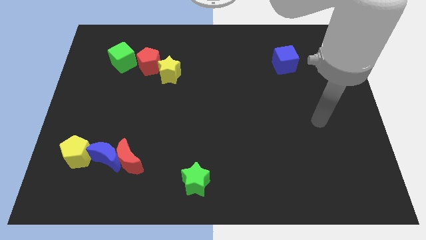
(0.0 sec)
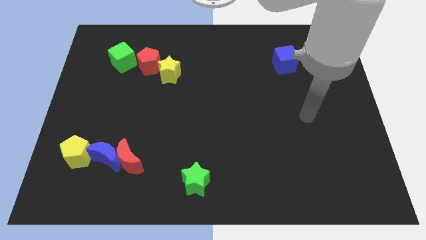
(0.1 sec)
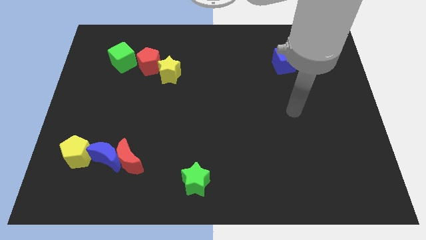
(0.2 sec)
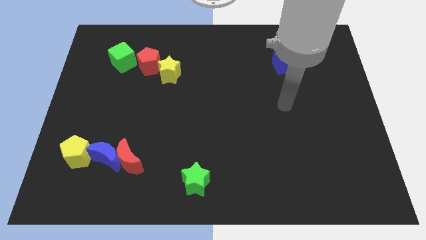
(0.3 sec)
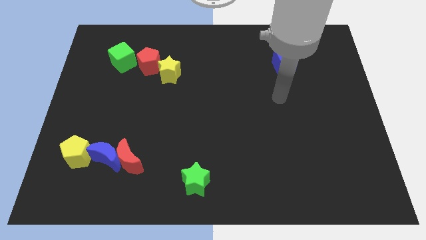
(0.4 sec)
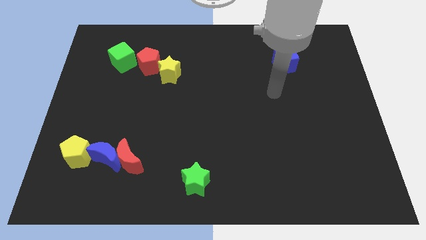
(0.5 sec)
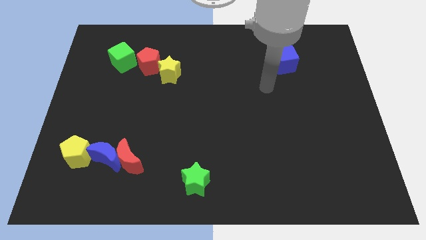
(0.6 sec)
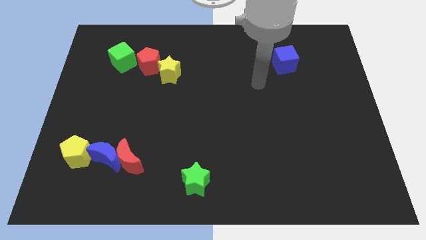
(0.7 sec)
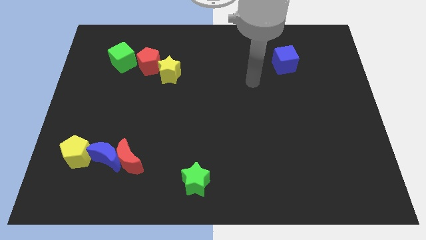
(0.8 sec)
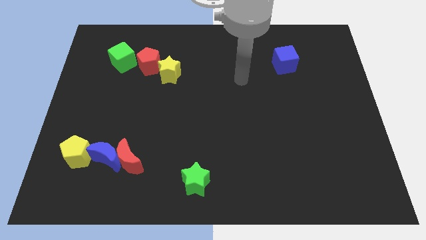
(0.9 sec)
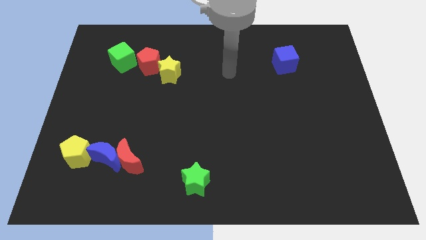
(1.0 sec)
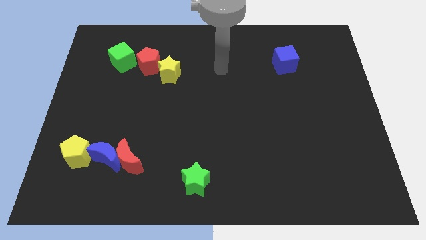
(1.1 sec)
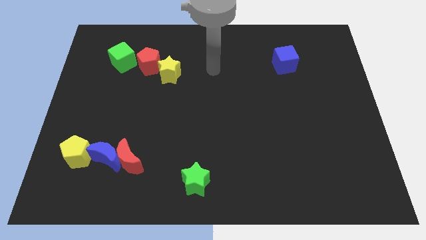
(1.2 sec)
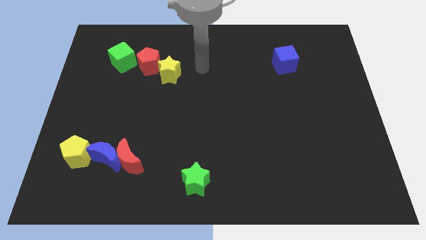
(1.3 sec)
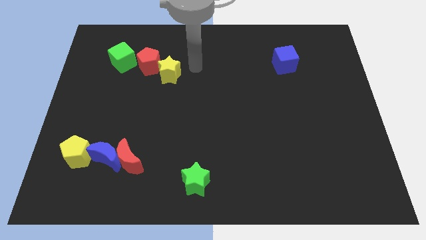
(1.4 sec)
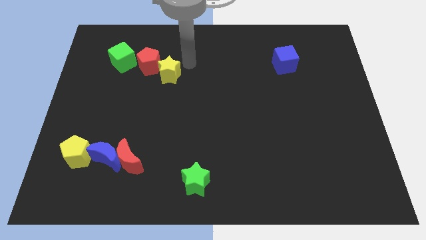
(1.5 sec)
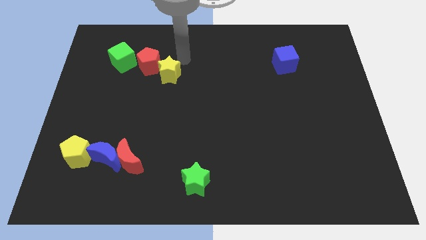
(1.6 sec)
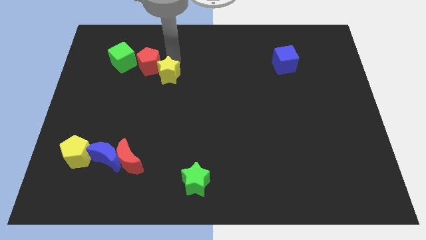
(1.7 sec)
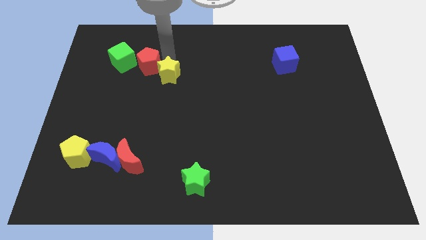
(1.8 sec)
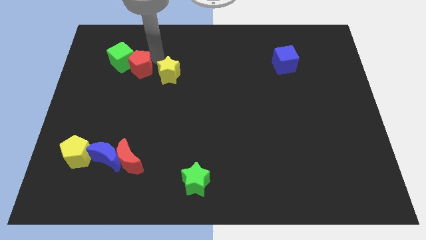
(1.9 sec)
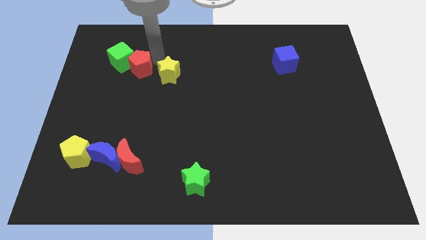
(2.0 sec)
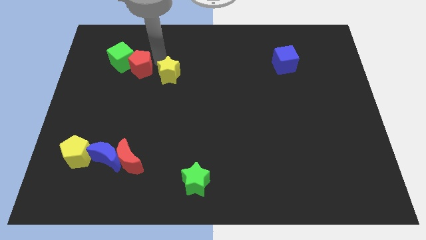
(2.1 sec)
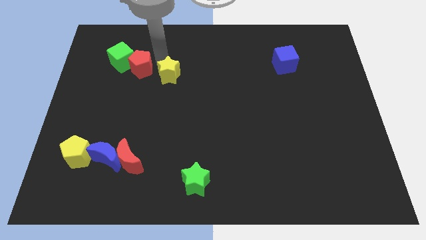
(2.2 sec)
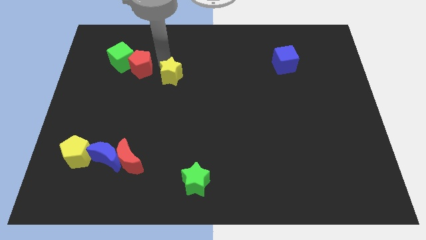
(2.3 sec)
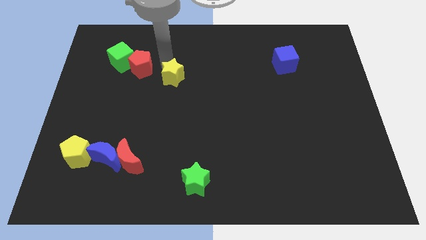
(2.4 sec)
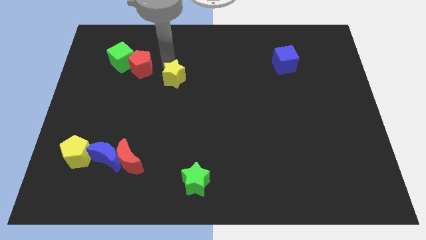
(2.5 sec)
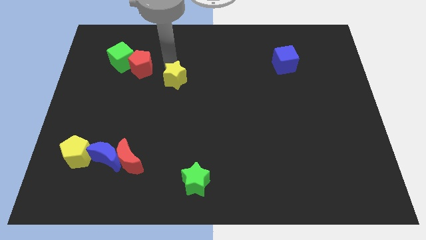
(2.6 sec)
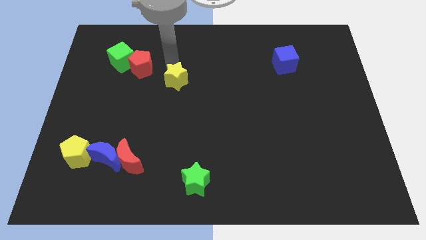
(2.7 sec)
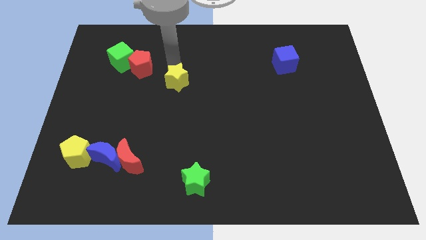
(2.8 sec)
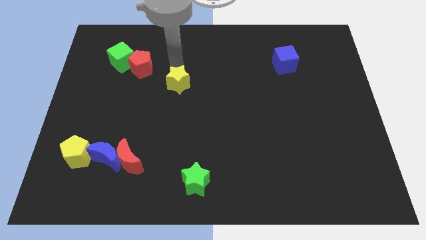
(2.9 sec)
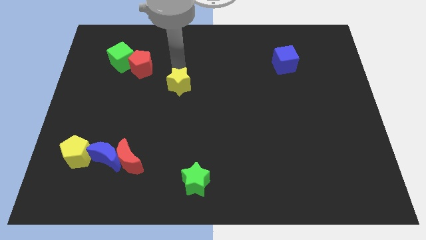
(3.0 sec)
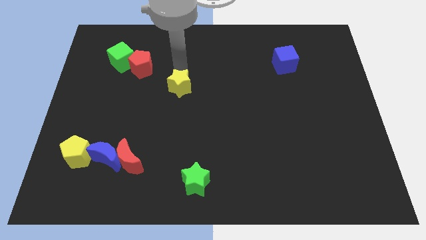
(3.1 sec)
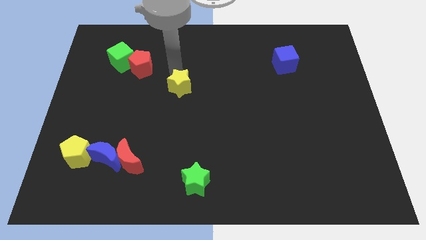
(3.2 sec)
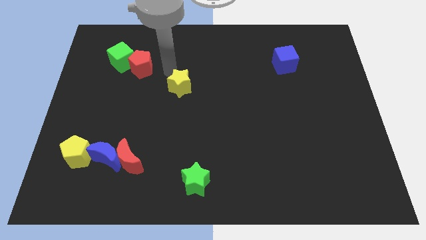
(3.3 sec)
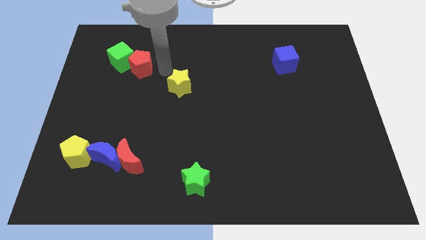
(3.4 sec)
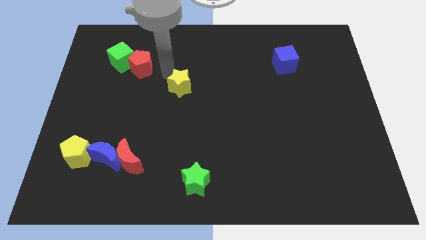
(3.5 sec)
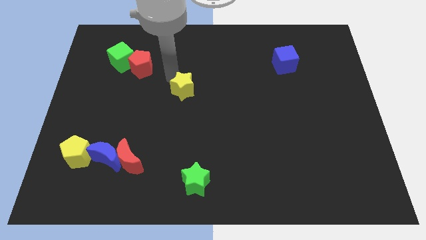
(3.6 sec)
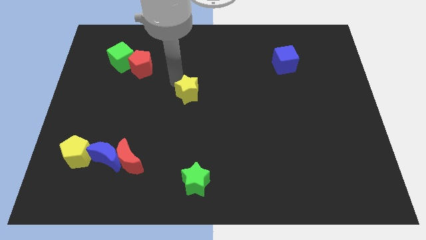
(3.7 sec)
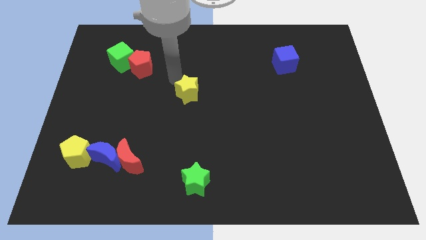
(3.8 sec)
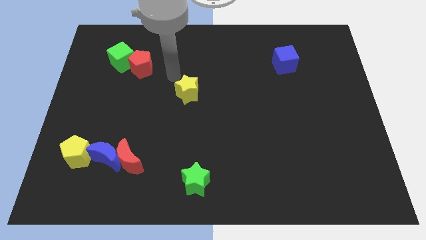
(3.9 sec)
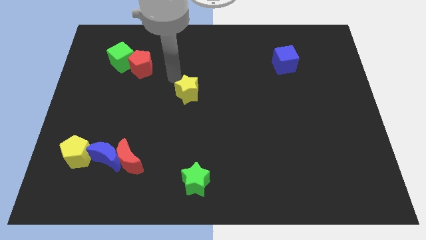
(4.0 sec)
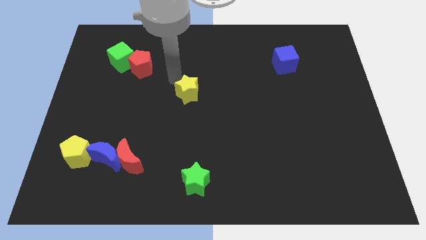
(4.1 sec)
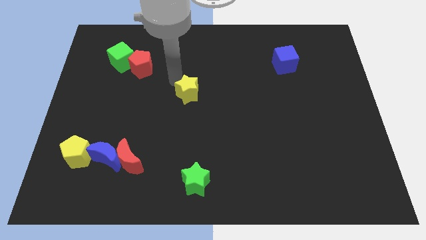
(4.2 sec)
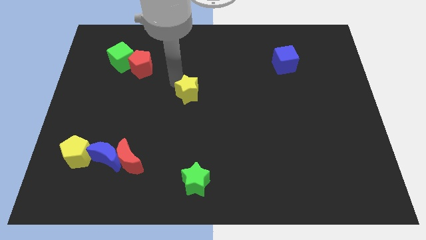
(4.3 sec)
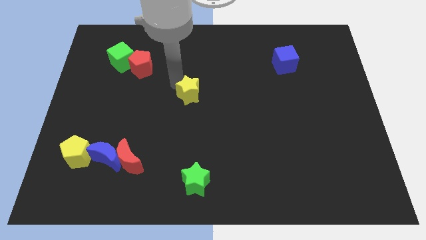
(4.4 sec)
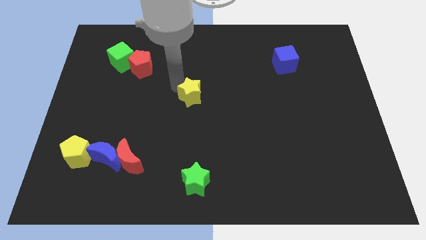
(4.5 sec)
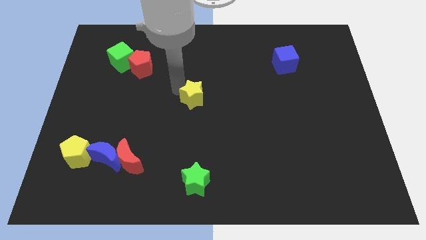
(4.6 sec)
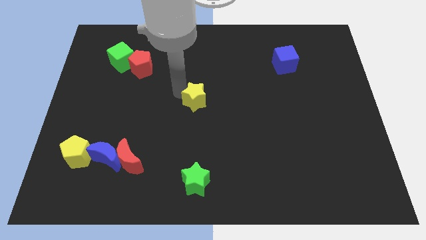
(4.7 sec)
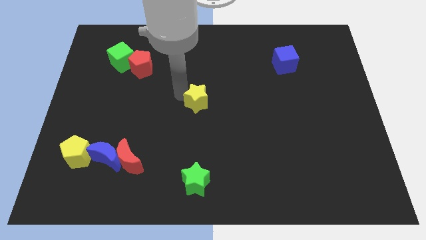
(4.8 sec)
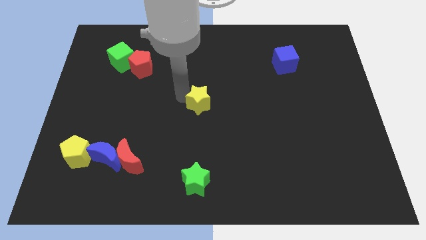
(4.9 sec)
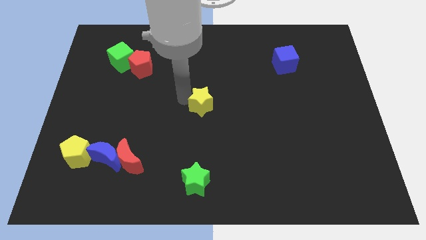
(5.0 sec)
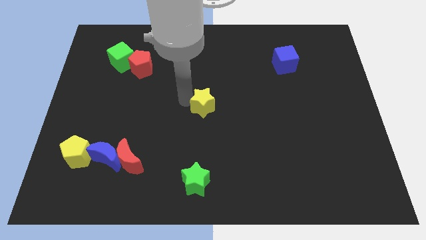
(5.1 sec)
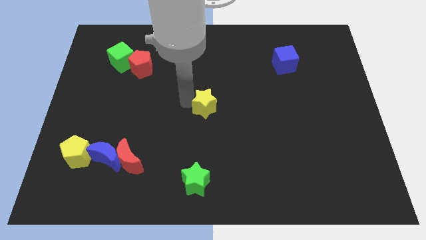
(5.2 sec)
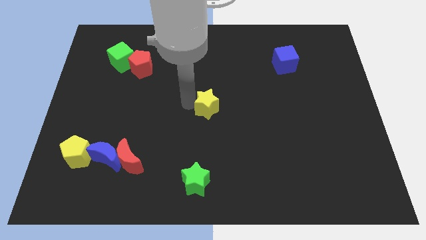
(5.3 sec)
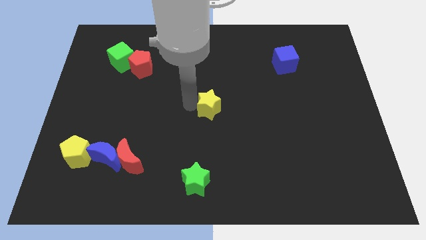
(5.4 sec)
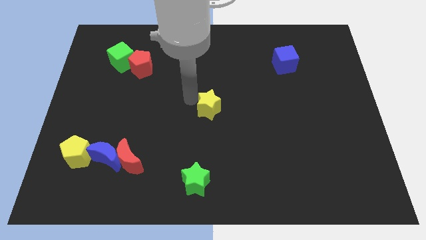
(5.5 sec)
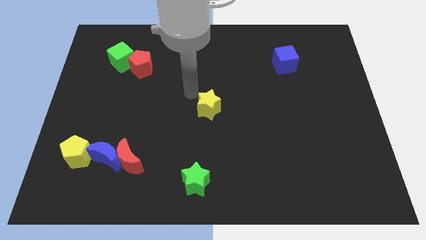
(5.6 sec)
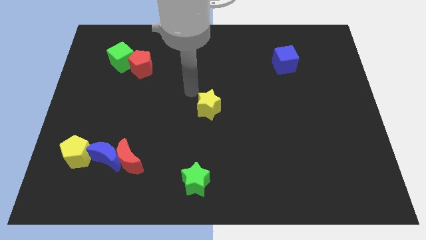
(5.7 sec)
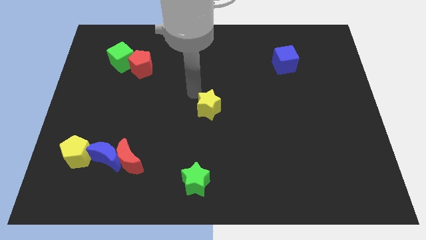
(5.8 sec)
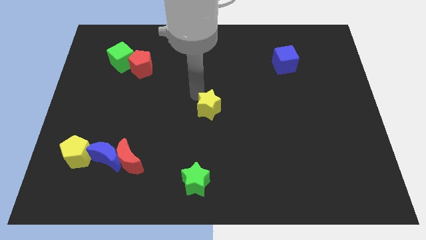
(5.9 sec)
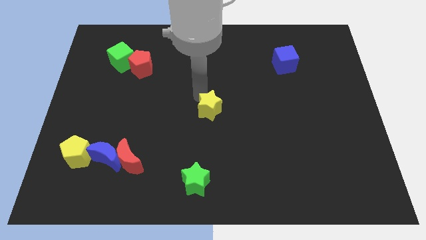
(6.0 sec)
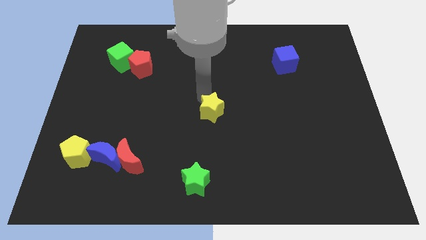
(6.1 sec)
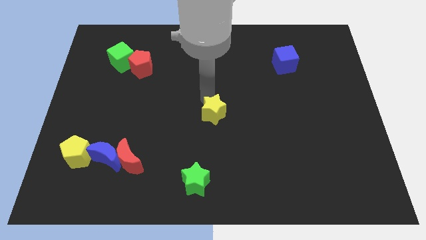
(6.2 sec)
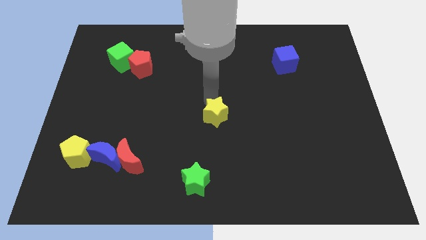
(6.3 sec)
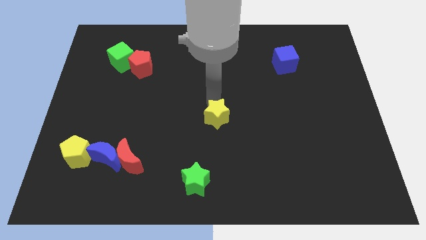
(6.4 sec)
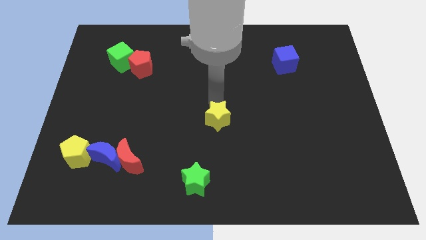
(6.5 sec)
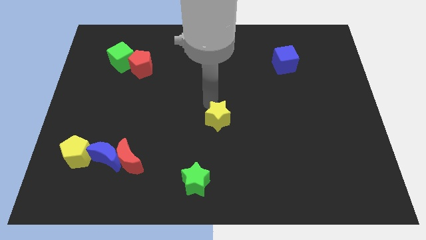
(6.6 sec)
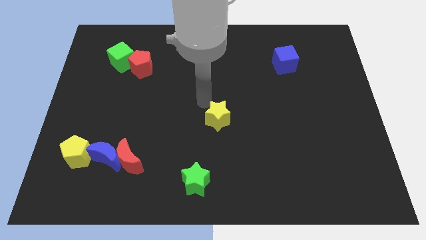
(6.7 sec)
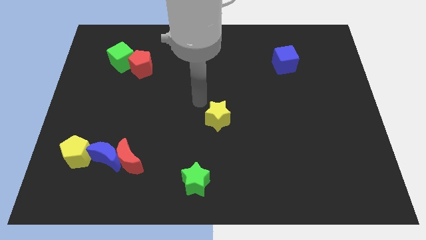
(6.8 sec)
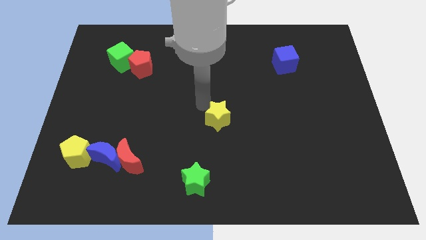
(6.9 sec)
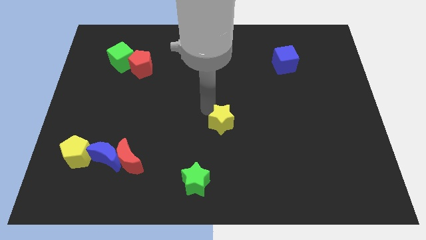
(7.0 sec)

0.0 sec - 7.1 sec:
push the yellow star diagonally down and right

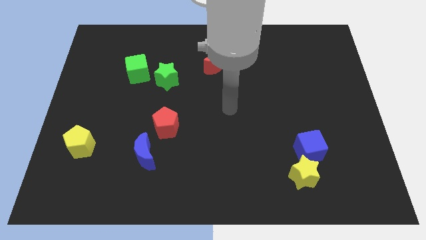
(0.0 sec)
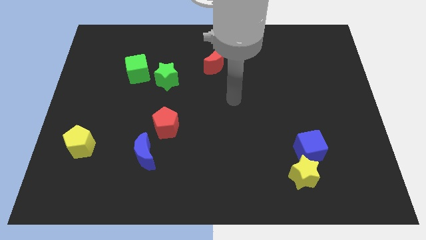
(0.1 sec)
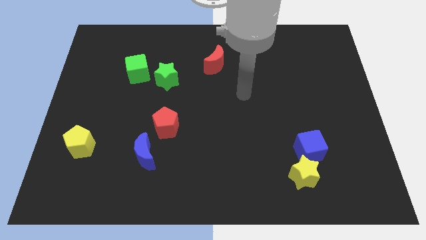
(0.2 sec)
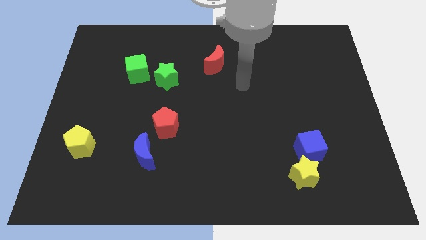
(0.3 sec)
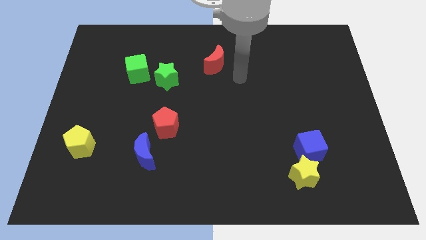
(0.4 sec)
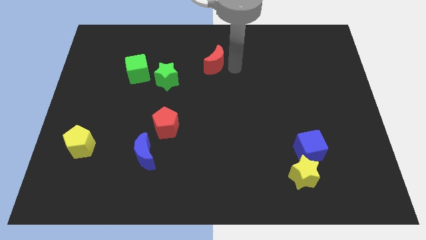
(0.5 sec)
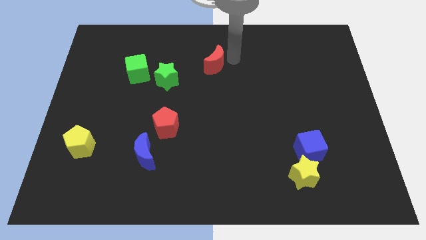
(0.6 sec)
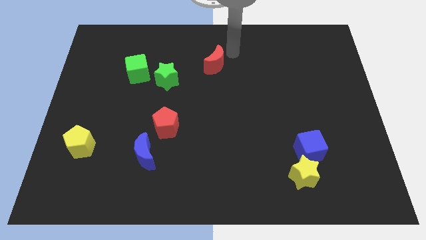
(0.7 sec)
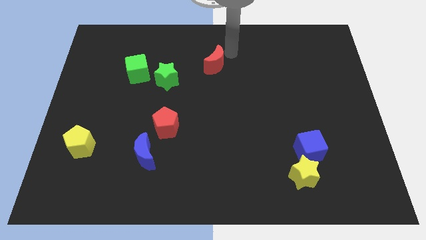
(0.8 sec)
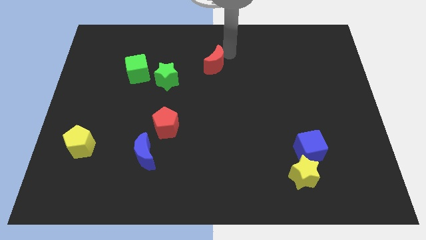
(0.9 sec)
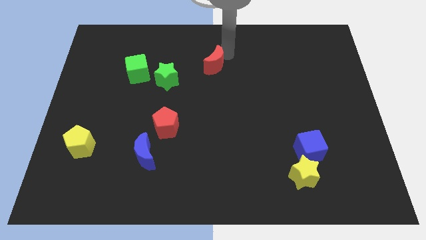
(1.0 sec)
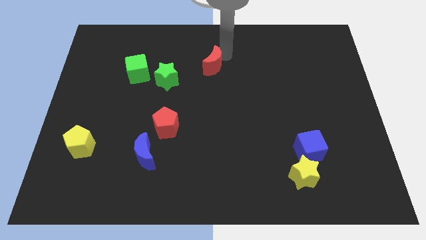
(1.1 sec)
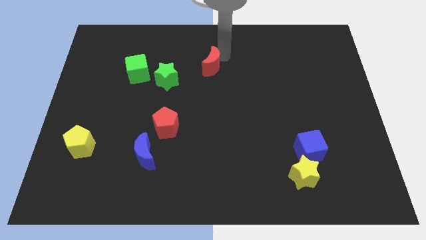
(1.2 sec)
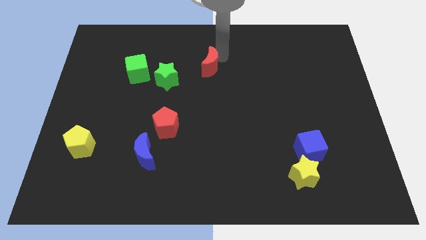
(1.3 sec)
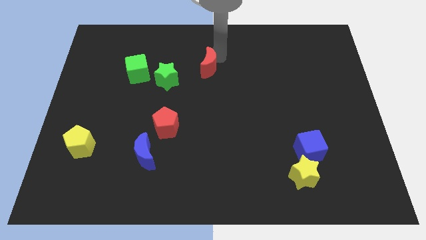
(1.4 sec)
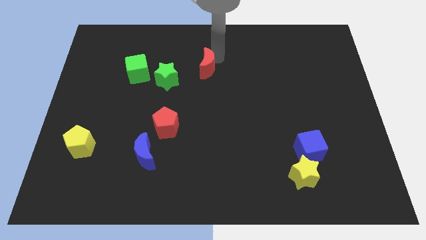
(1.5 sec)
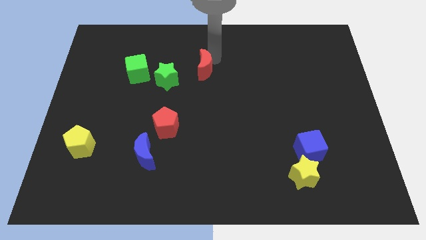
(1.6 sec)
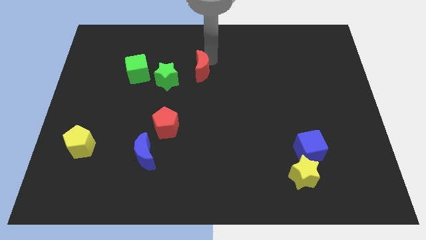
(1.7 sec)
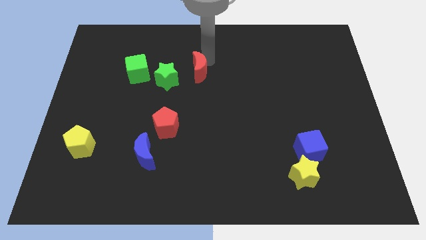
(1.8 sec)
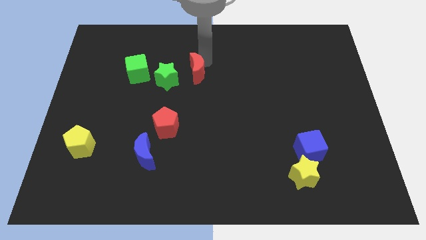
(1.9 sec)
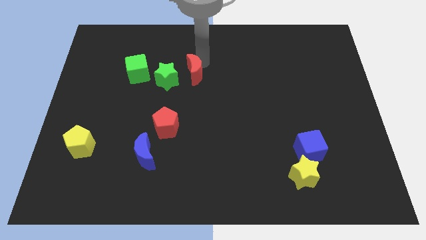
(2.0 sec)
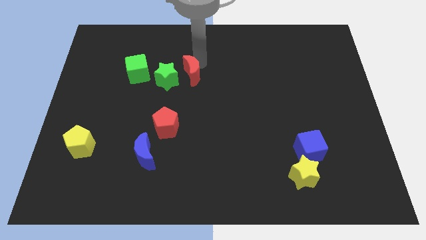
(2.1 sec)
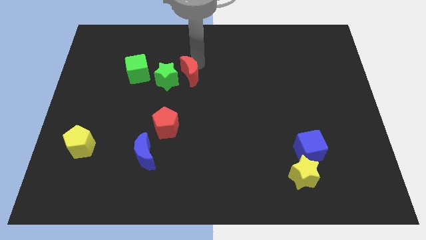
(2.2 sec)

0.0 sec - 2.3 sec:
move the red moon slightly downwards and to the left
